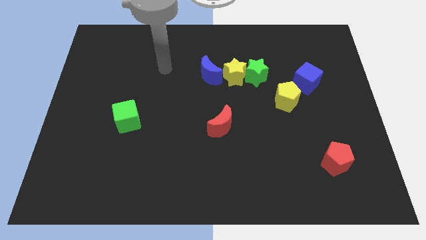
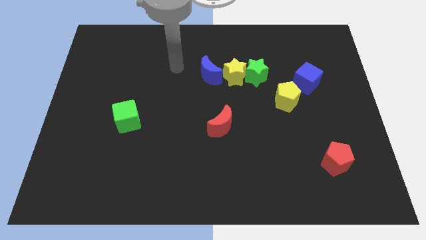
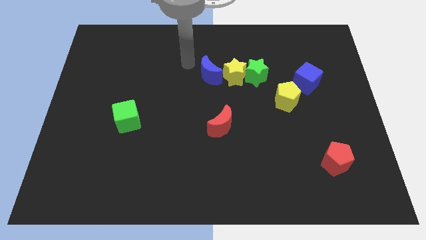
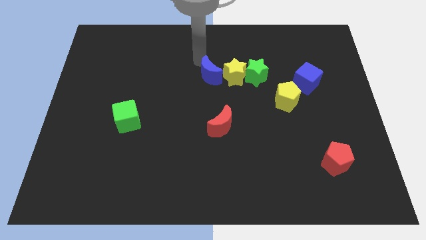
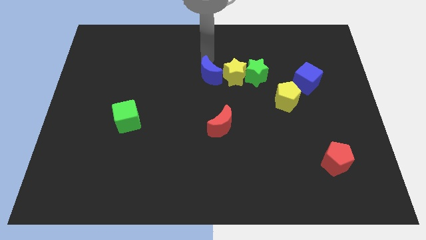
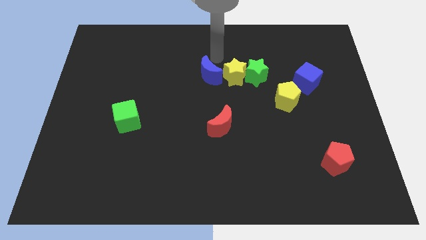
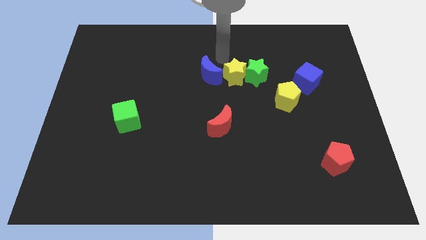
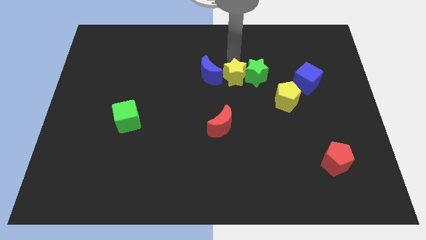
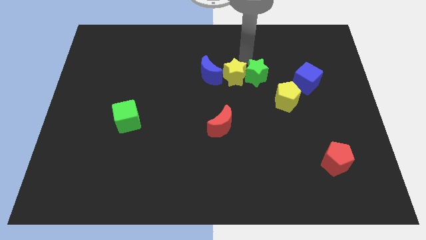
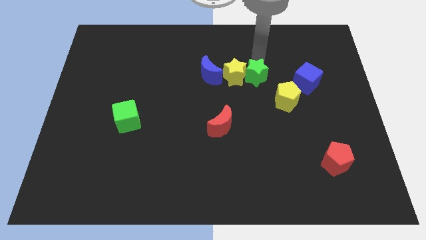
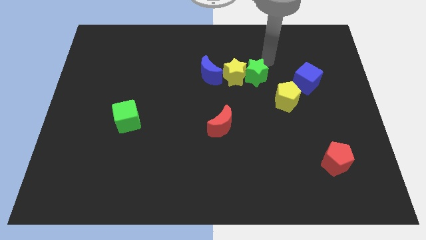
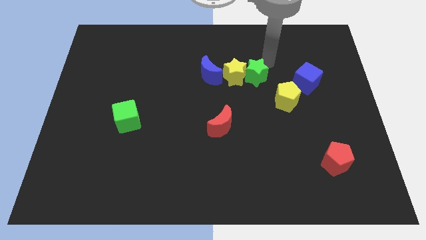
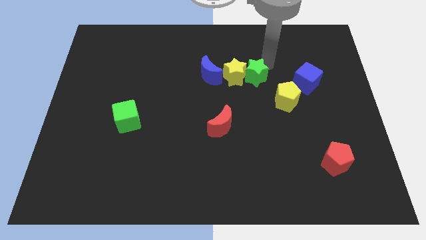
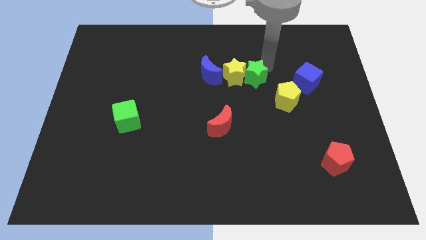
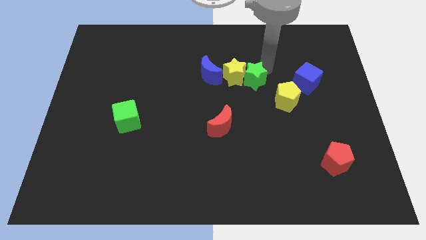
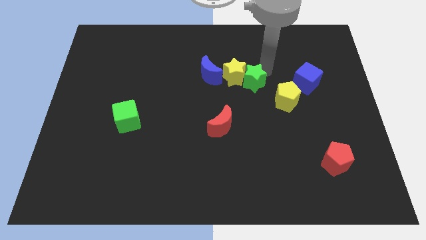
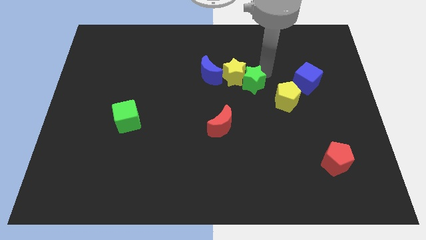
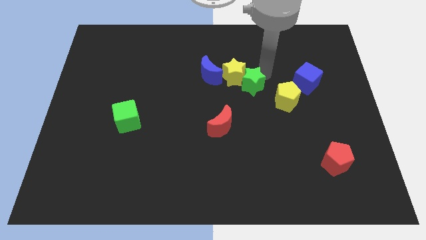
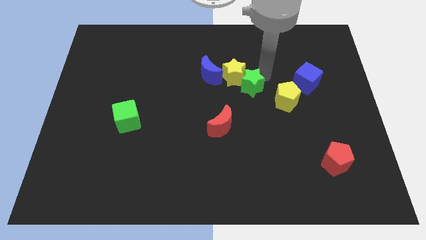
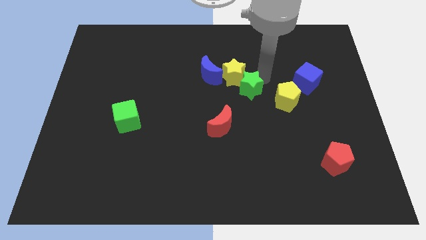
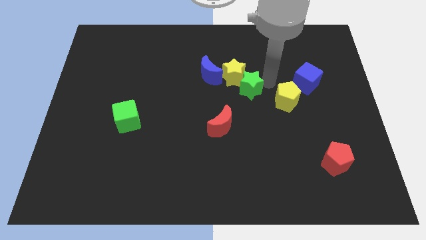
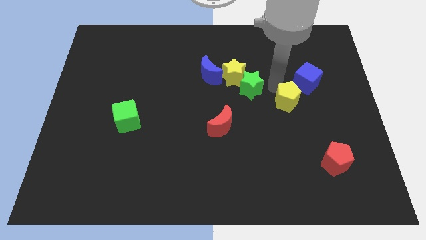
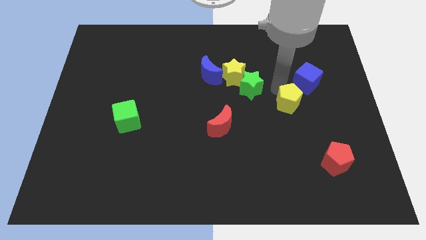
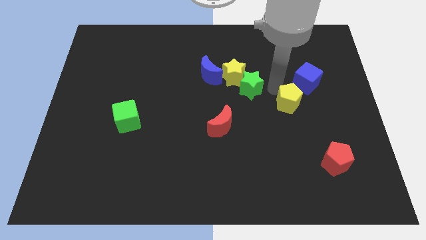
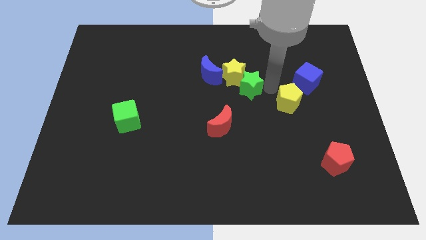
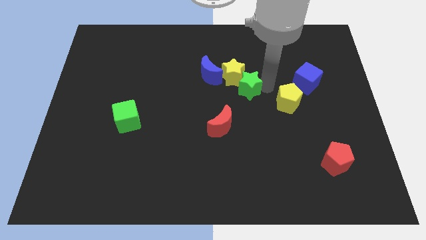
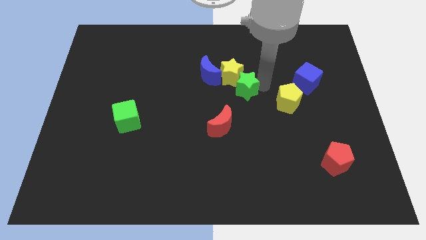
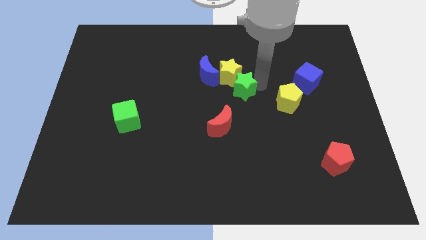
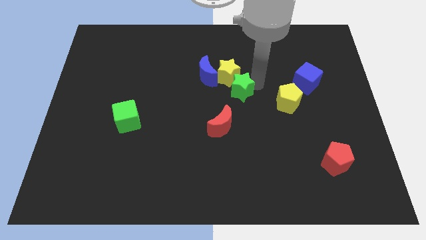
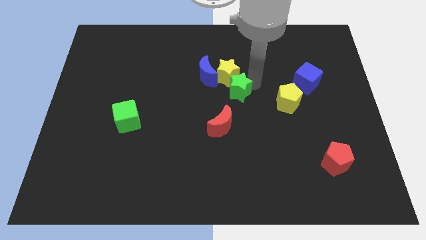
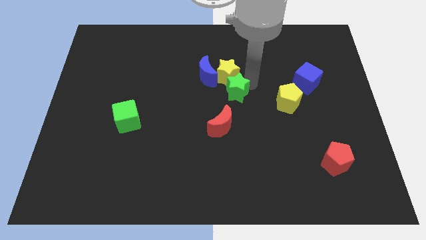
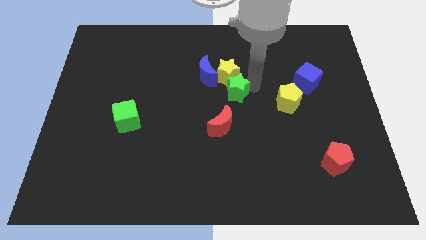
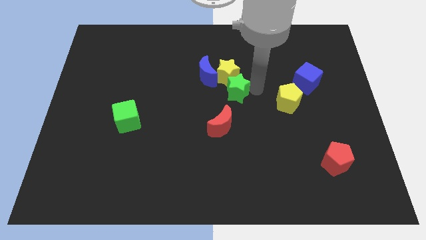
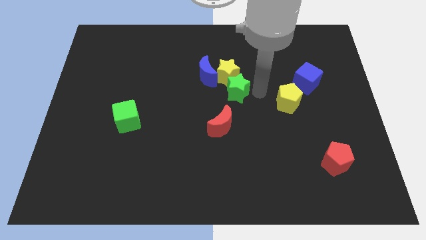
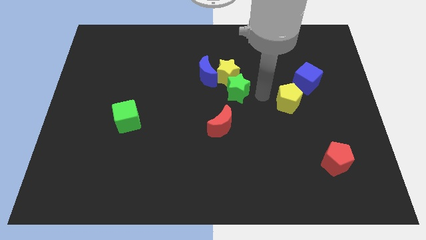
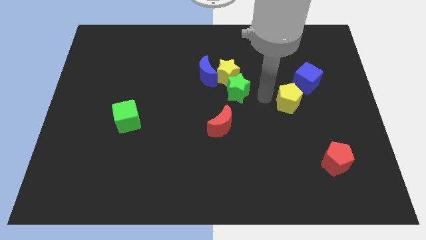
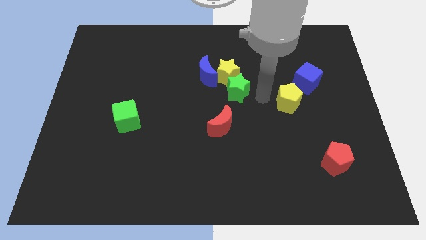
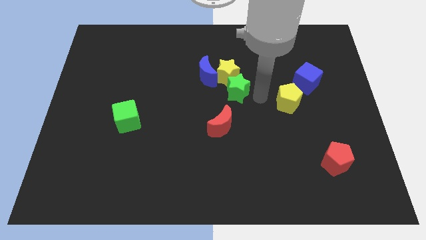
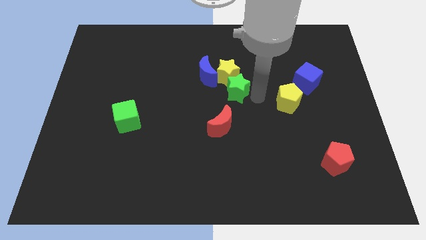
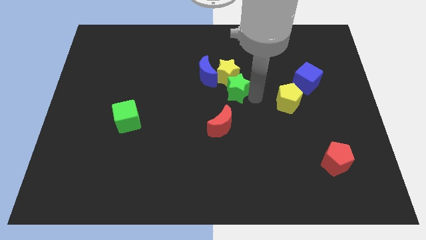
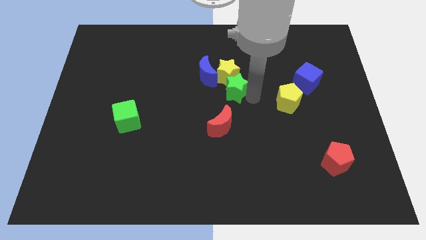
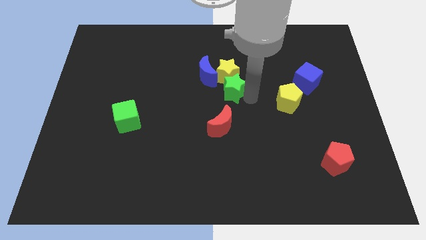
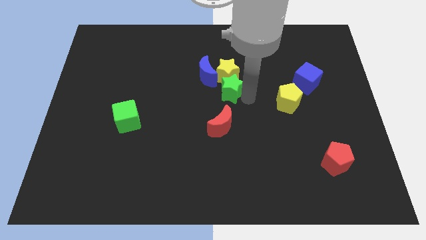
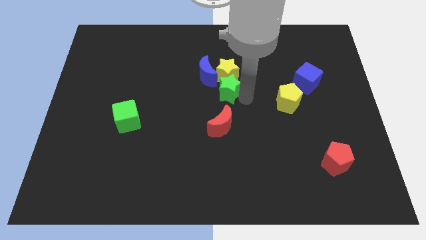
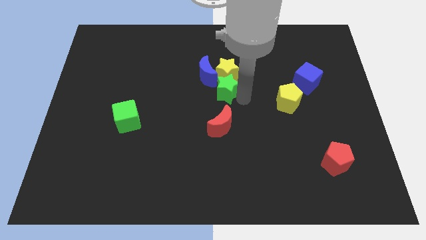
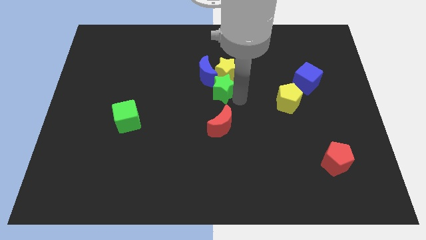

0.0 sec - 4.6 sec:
slightly move the green star to the left

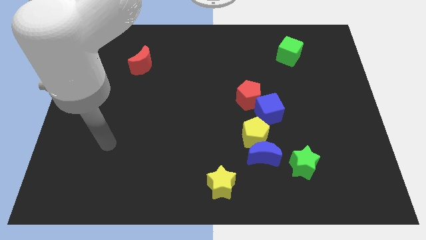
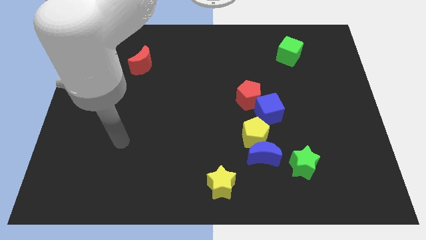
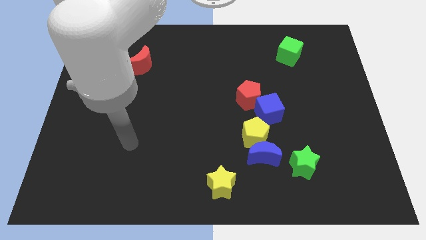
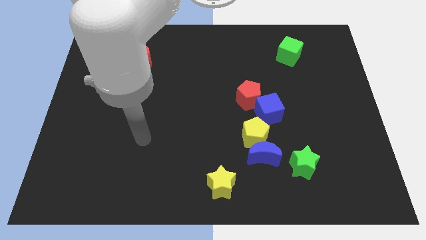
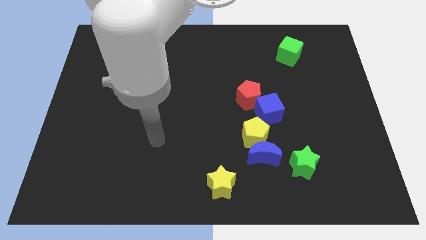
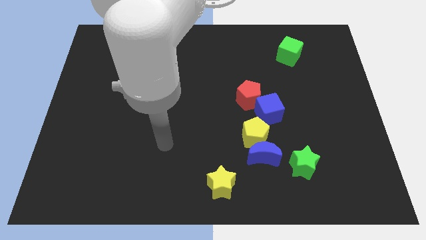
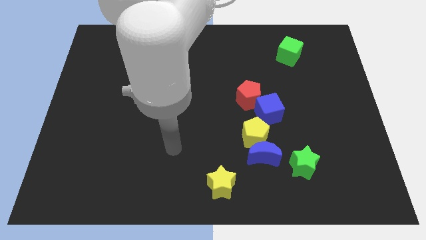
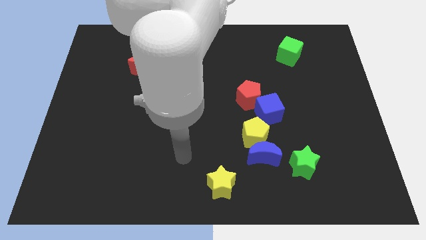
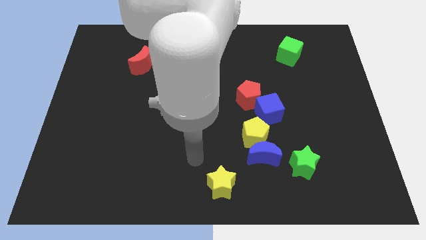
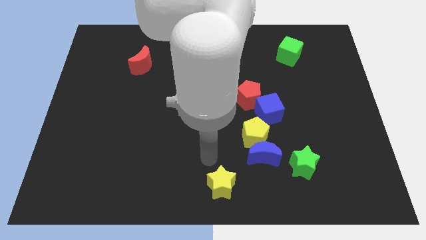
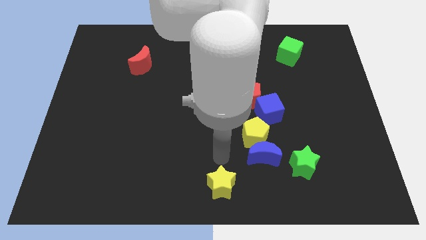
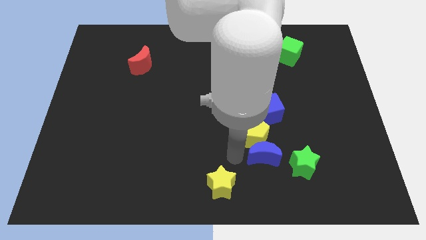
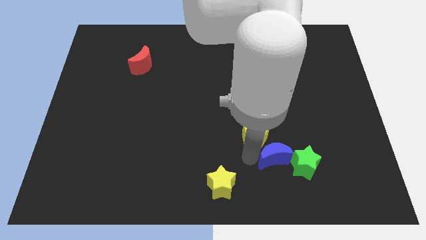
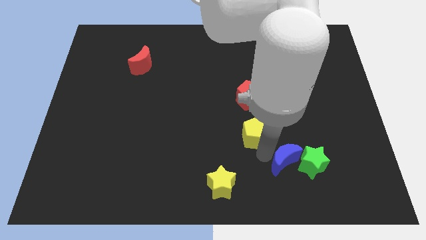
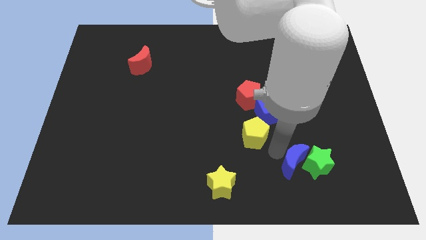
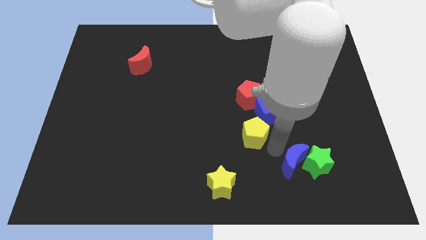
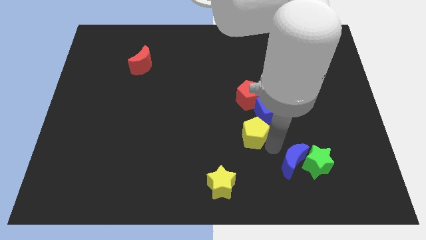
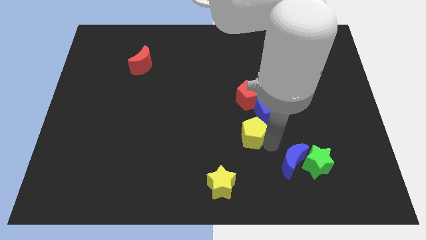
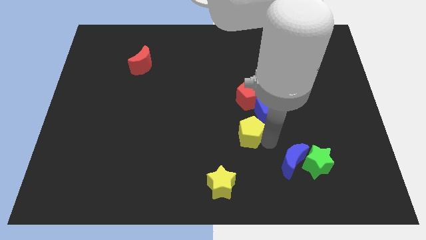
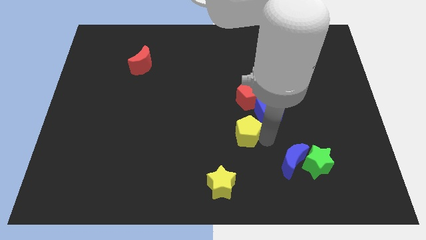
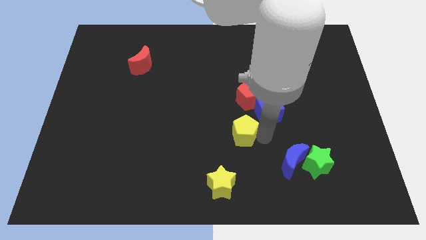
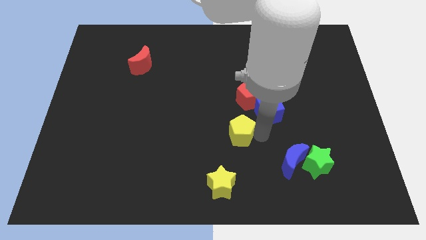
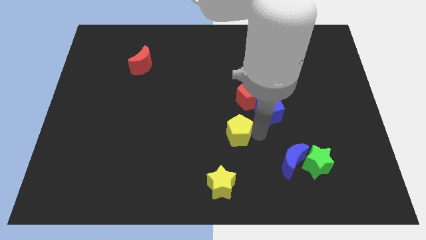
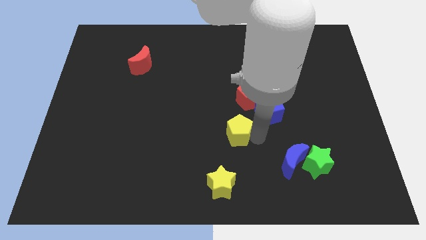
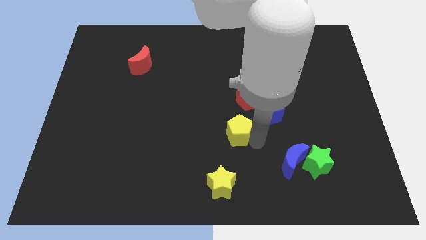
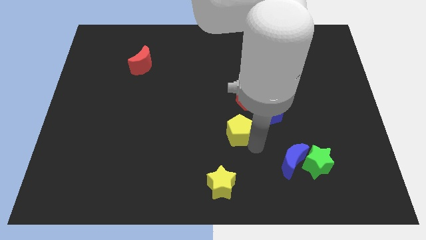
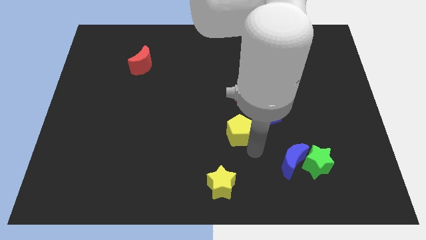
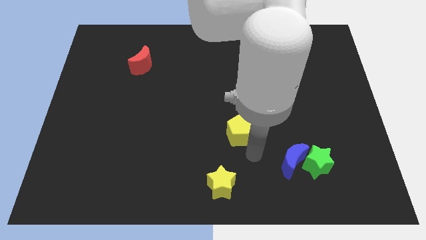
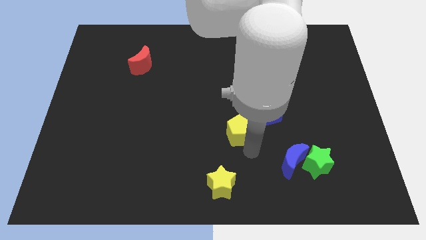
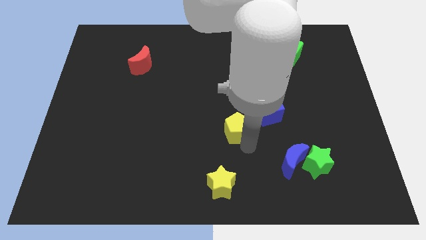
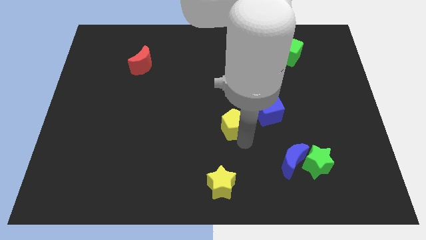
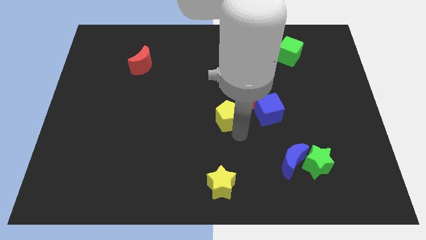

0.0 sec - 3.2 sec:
move the yellow pentagon up and to the left diagonally a bit

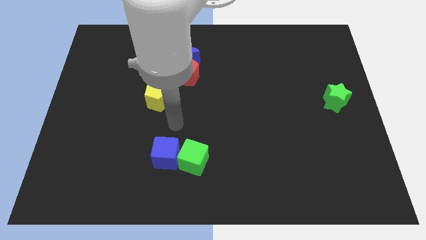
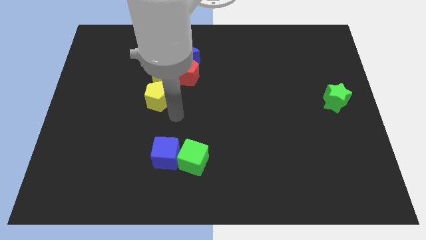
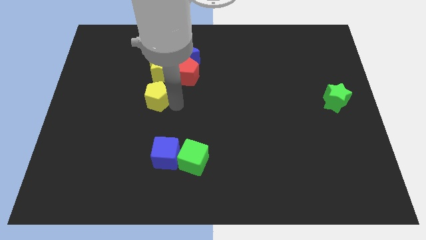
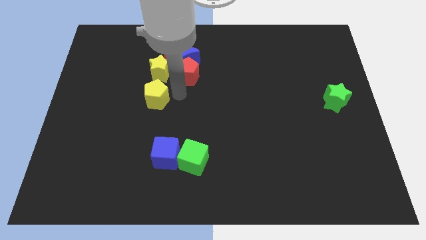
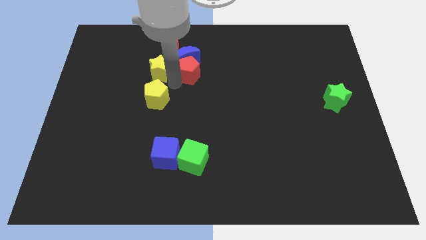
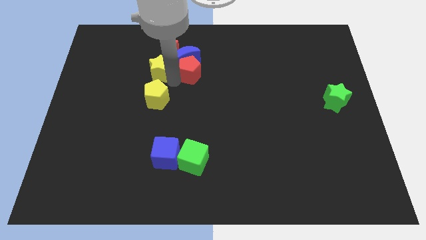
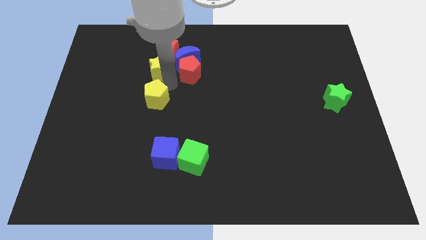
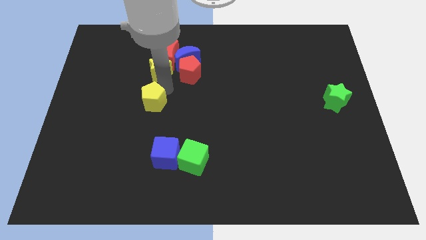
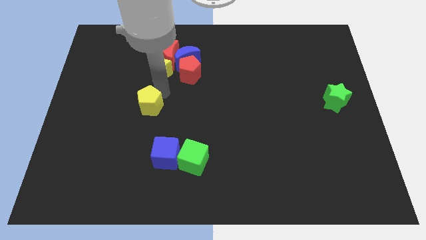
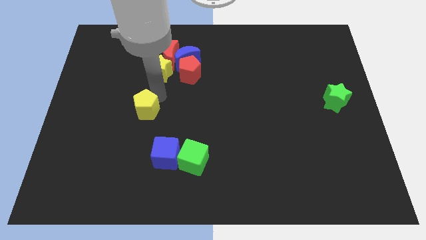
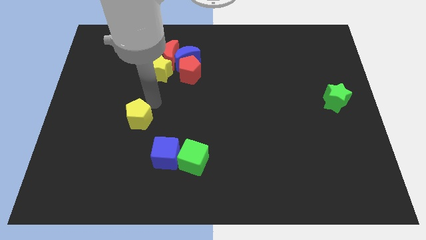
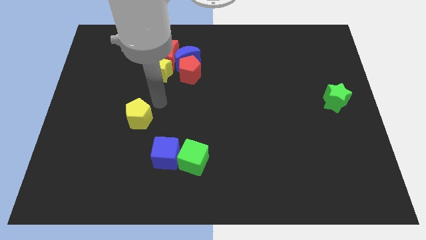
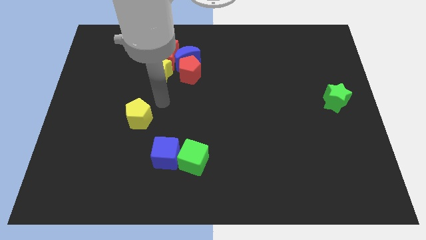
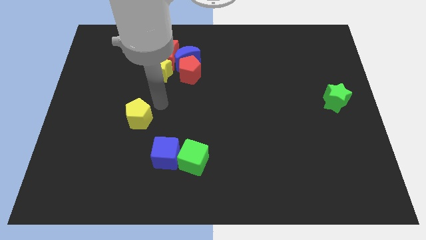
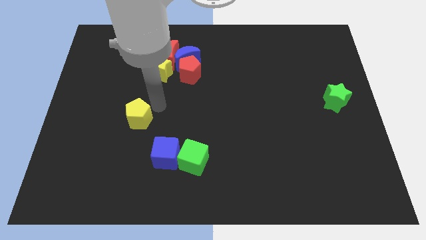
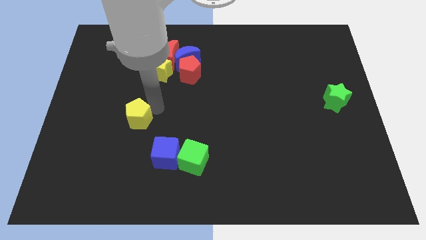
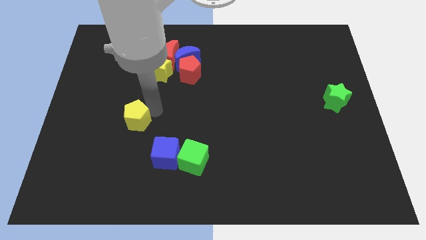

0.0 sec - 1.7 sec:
slightly push the yellow pentagon down and to the left
